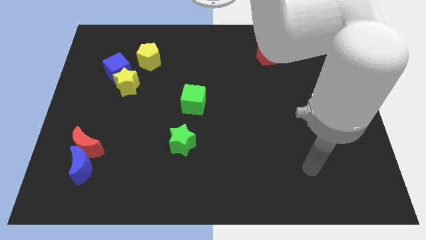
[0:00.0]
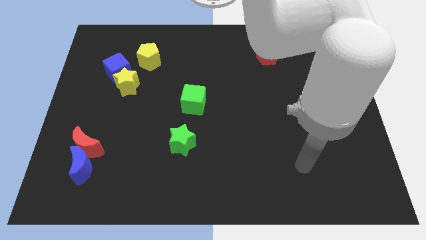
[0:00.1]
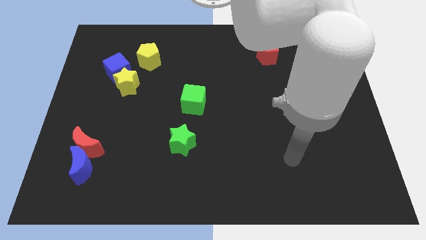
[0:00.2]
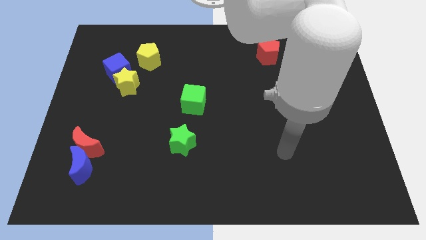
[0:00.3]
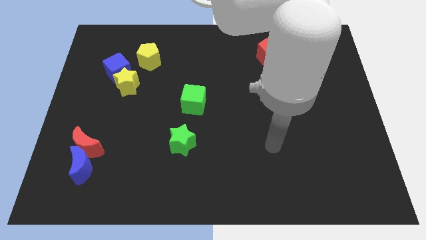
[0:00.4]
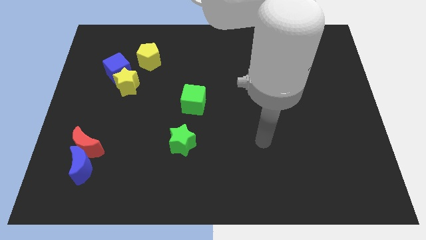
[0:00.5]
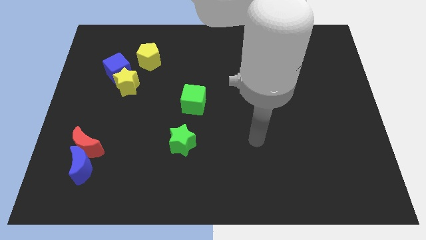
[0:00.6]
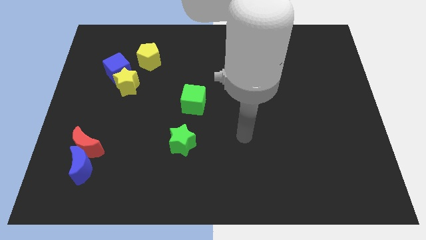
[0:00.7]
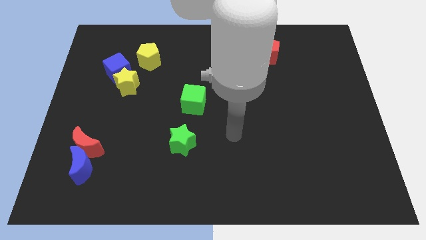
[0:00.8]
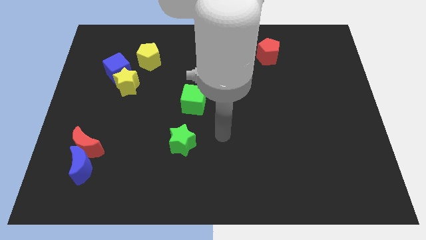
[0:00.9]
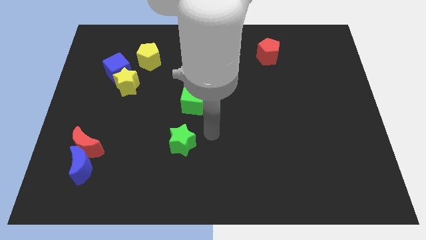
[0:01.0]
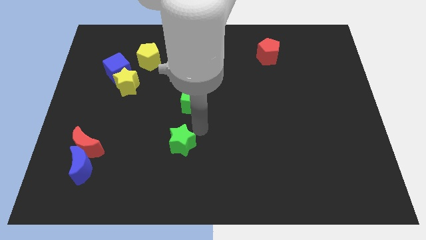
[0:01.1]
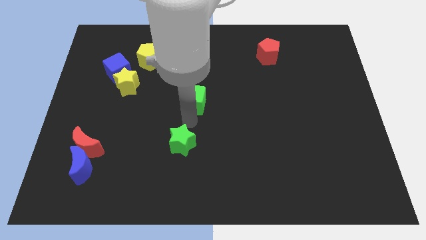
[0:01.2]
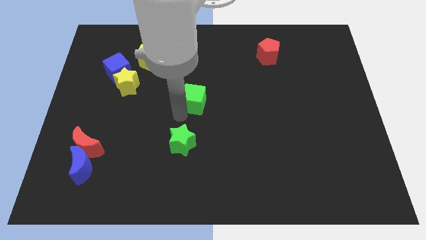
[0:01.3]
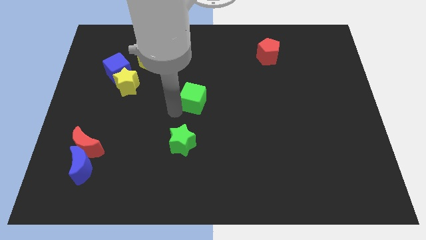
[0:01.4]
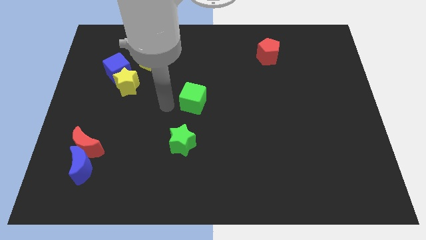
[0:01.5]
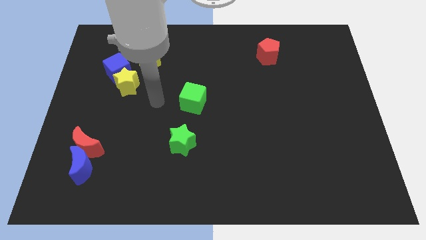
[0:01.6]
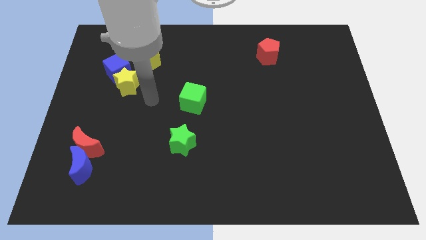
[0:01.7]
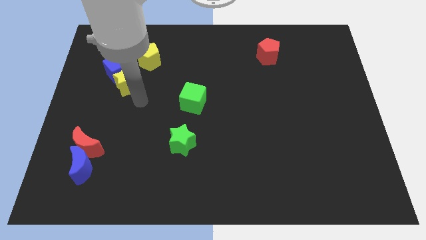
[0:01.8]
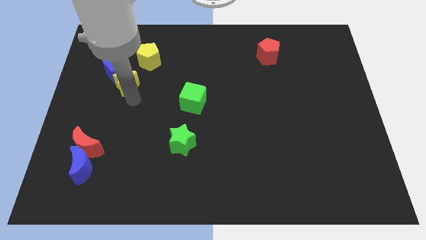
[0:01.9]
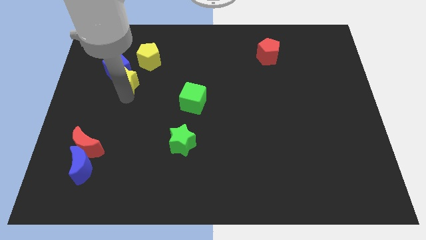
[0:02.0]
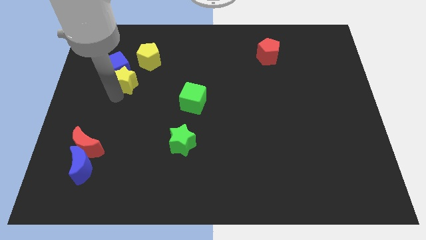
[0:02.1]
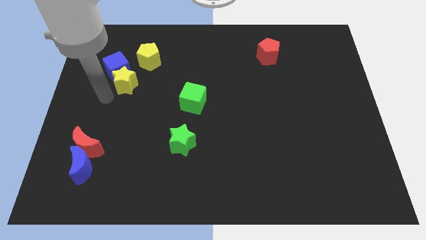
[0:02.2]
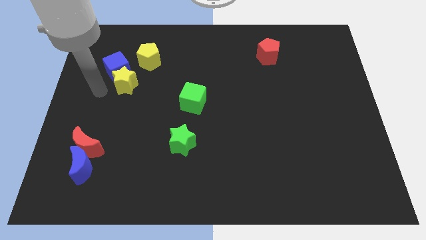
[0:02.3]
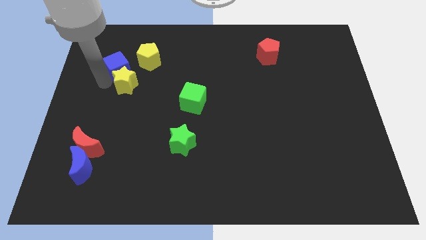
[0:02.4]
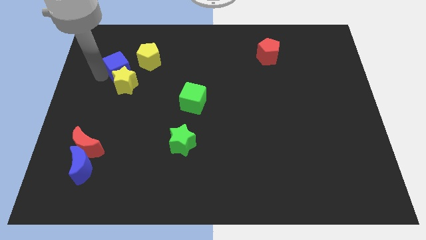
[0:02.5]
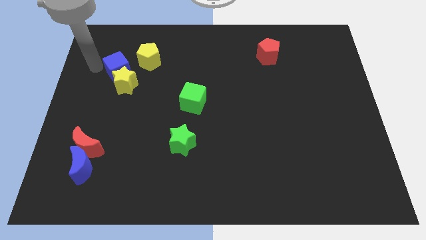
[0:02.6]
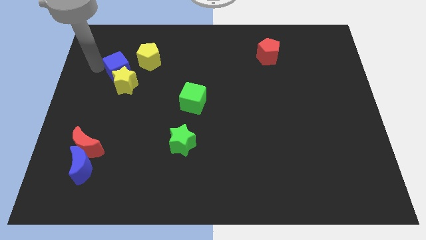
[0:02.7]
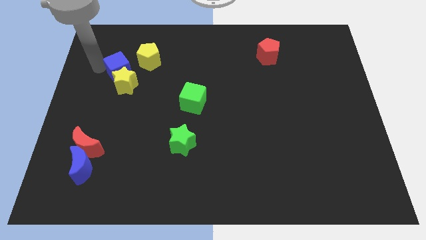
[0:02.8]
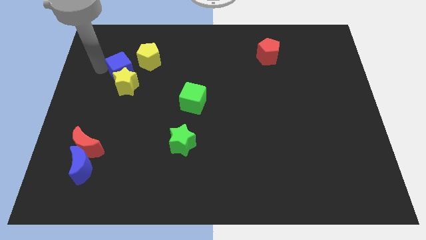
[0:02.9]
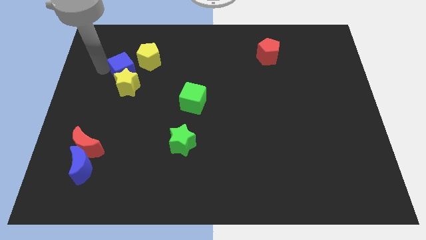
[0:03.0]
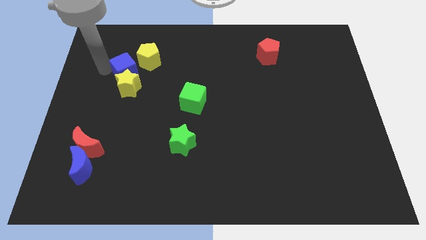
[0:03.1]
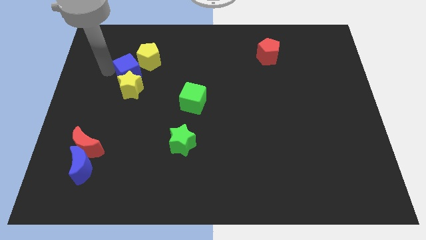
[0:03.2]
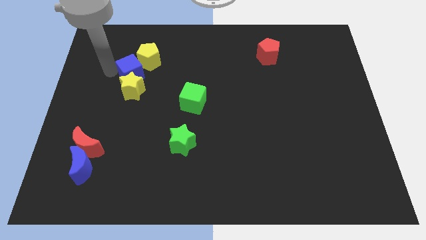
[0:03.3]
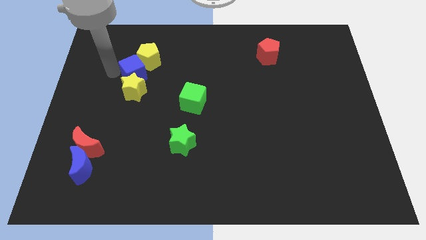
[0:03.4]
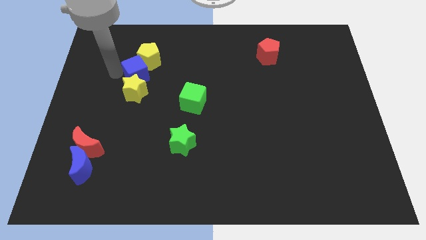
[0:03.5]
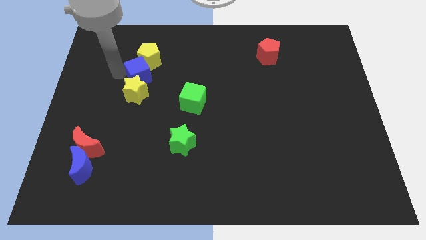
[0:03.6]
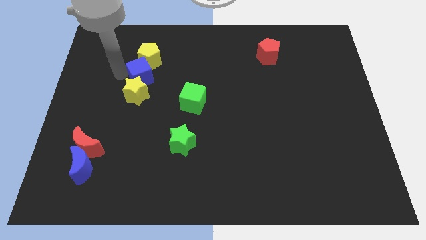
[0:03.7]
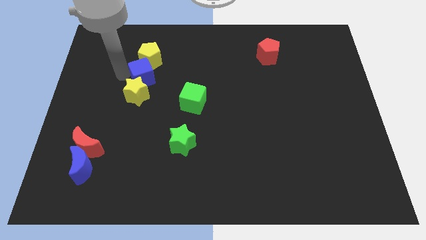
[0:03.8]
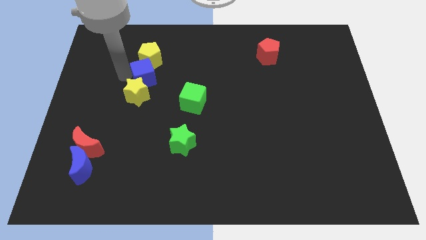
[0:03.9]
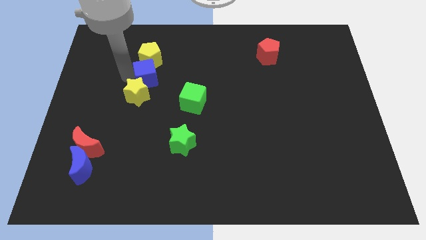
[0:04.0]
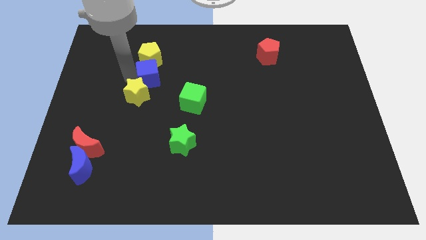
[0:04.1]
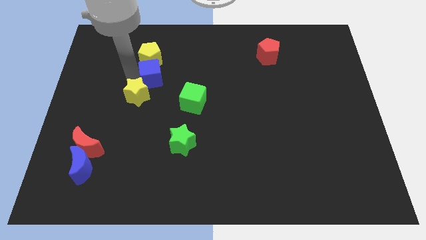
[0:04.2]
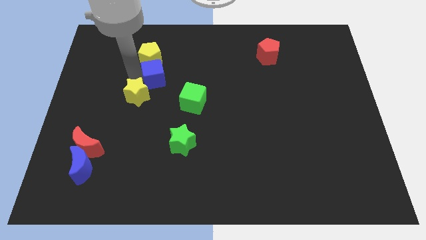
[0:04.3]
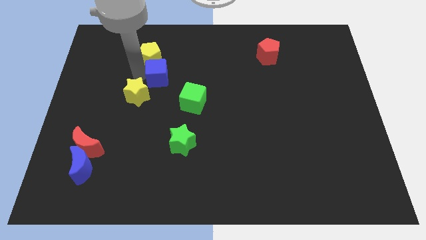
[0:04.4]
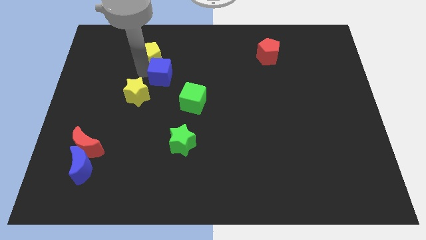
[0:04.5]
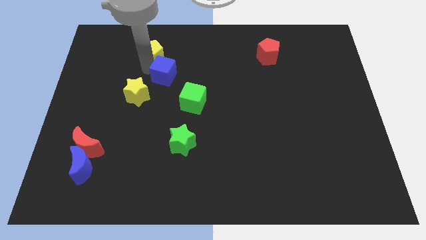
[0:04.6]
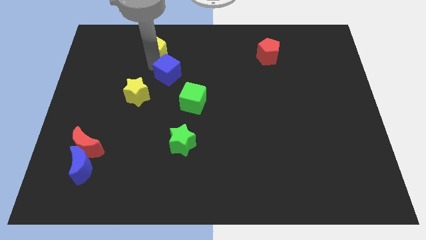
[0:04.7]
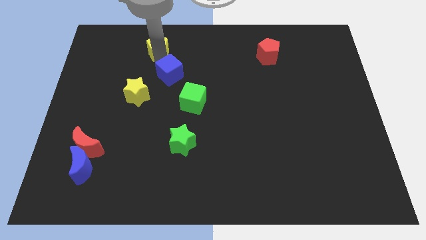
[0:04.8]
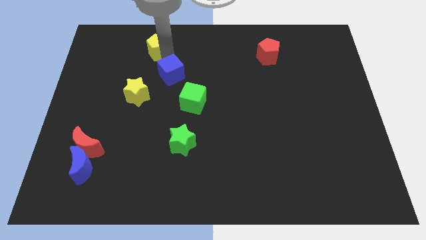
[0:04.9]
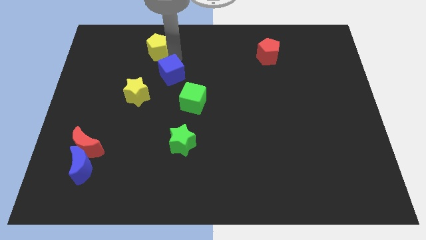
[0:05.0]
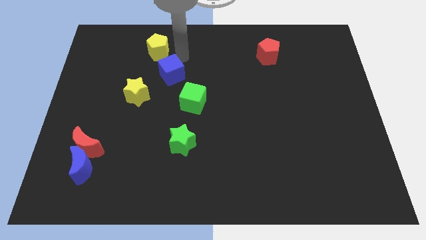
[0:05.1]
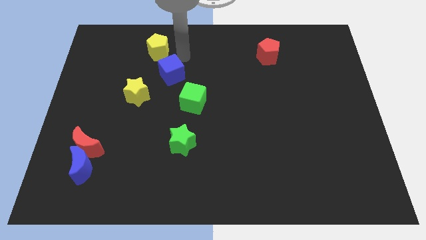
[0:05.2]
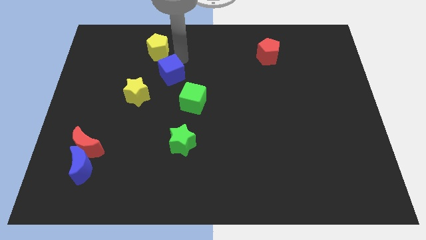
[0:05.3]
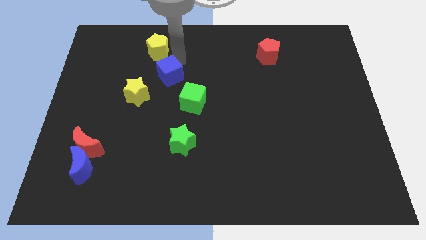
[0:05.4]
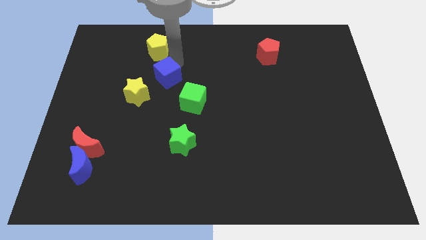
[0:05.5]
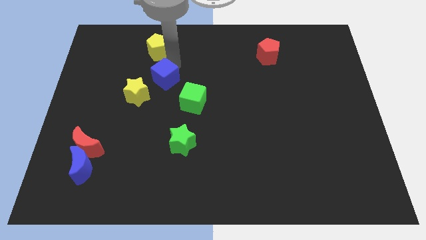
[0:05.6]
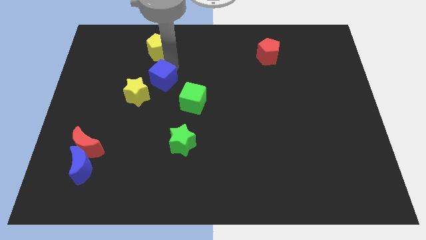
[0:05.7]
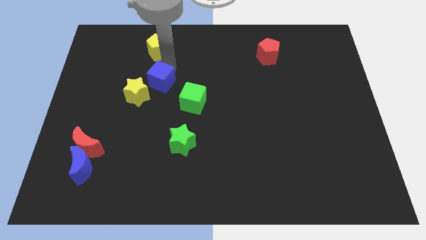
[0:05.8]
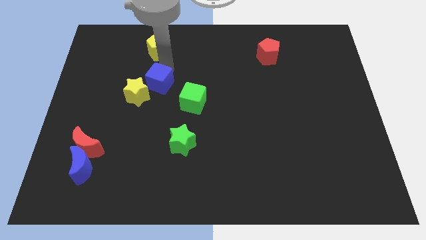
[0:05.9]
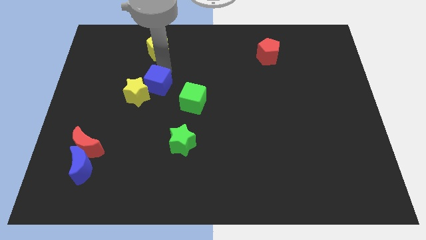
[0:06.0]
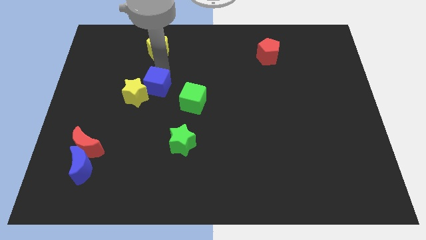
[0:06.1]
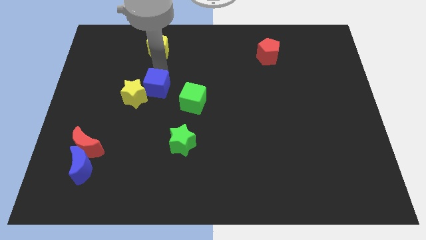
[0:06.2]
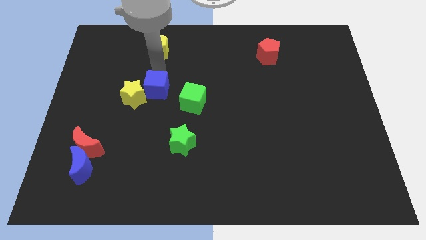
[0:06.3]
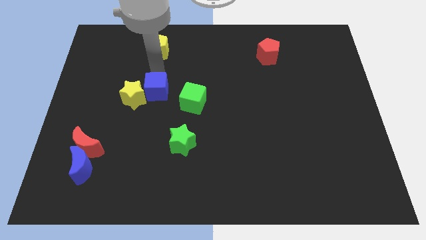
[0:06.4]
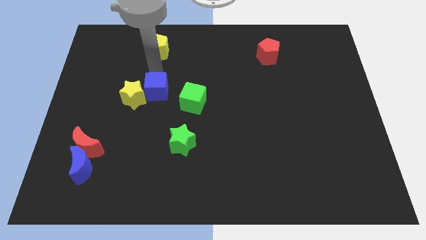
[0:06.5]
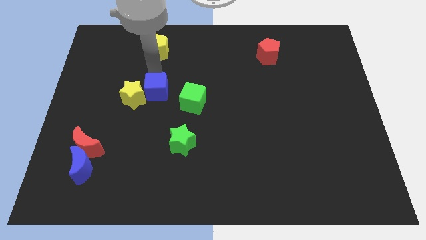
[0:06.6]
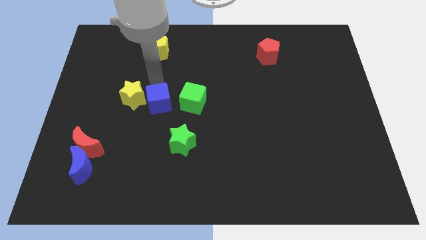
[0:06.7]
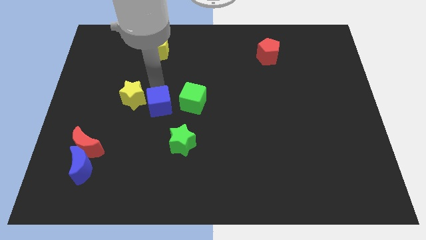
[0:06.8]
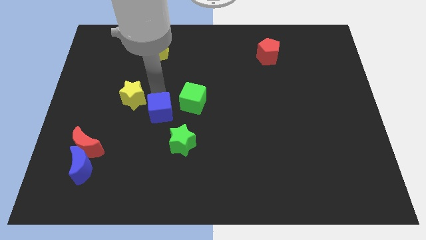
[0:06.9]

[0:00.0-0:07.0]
push the blue cube to the top left of the green star

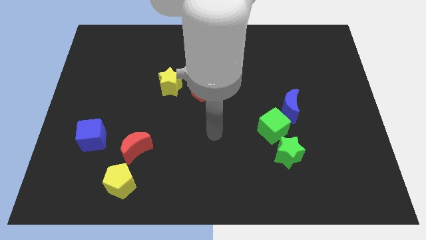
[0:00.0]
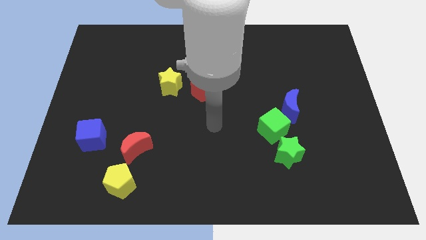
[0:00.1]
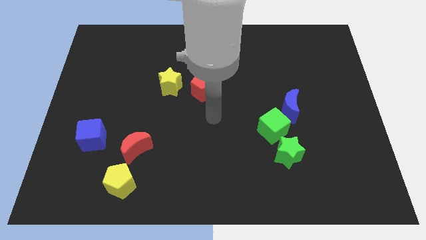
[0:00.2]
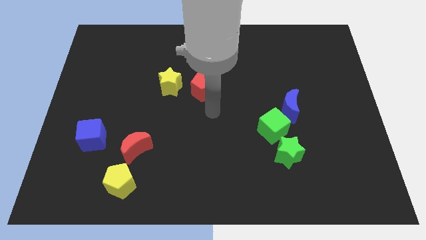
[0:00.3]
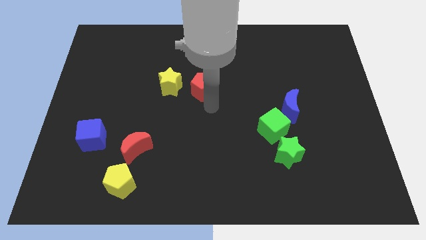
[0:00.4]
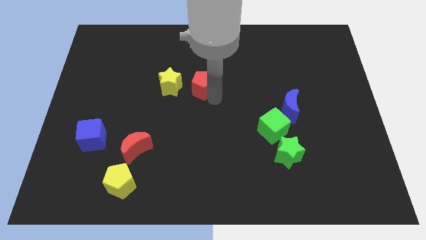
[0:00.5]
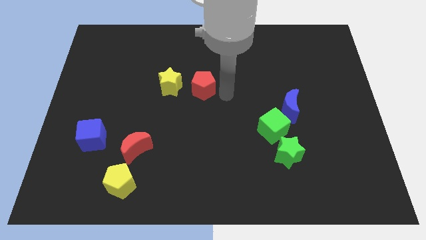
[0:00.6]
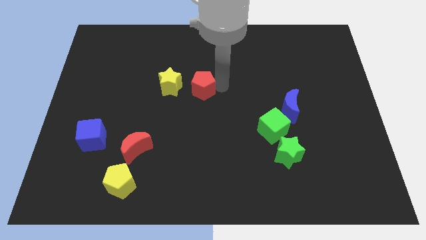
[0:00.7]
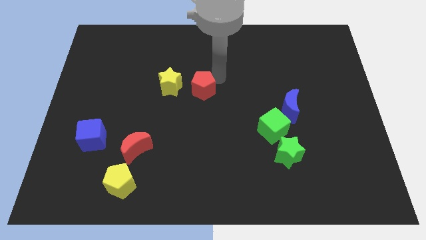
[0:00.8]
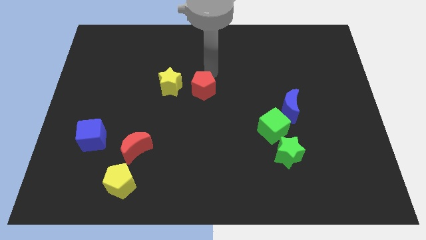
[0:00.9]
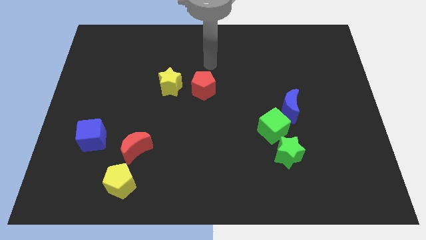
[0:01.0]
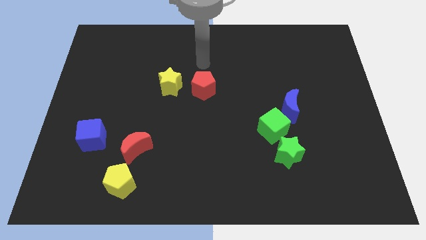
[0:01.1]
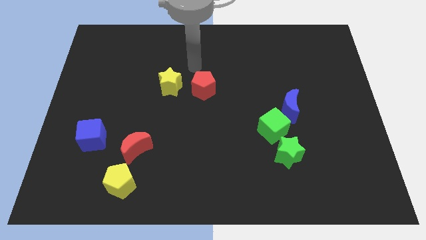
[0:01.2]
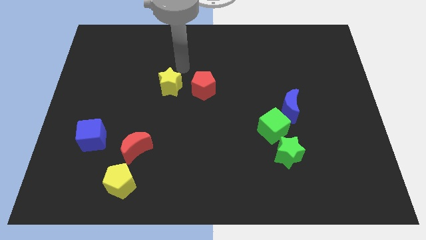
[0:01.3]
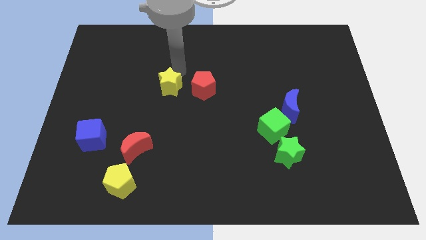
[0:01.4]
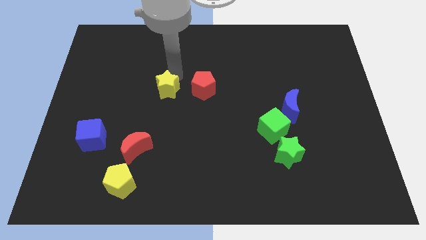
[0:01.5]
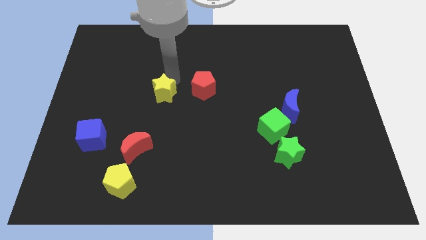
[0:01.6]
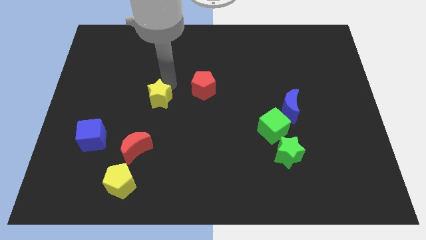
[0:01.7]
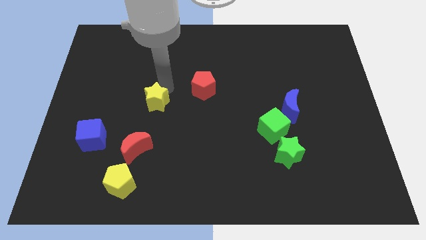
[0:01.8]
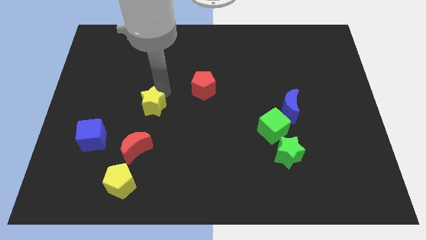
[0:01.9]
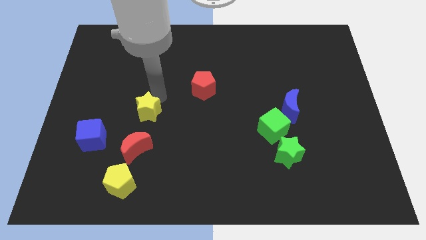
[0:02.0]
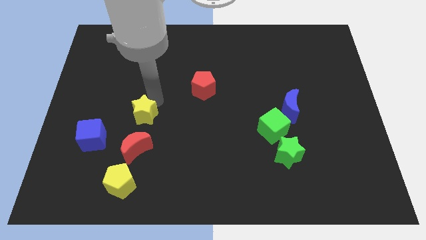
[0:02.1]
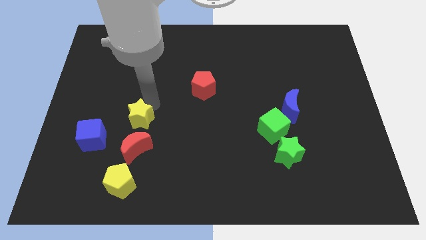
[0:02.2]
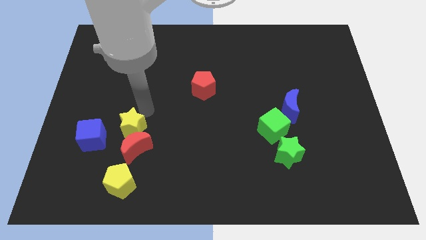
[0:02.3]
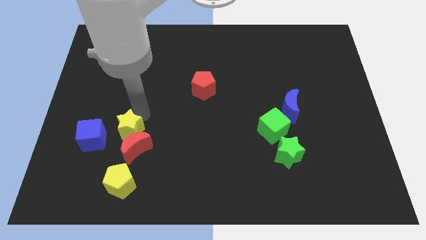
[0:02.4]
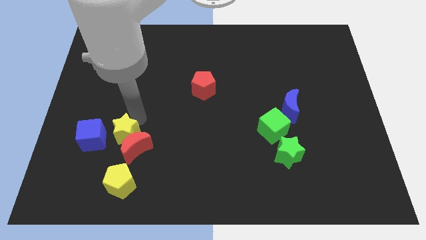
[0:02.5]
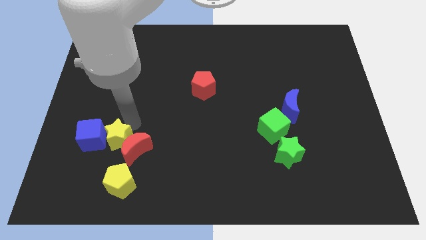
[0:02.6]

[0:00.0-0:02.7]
move the yellow star diagonally down and to the right of the blue cube
